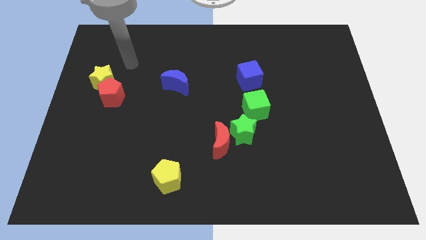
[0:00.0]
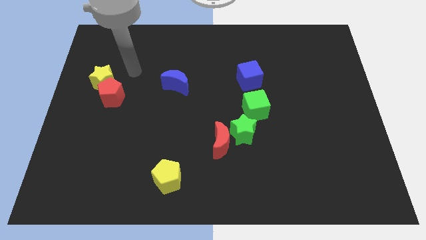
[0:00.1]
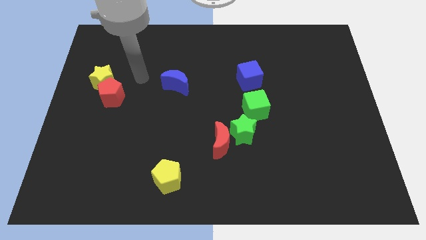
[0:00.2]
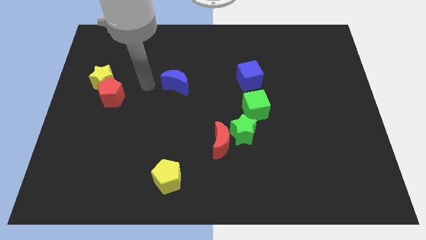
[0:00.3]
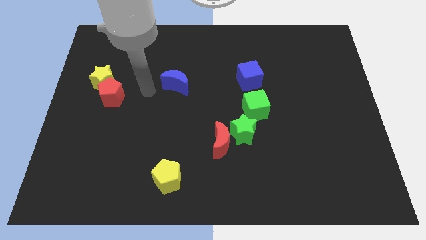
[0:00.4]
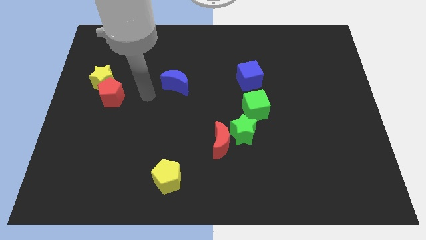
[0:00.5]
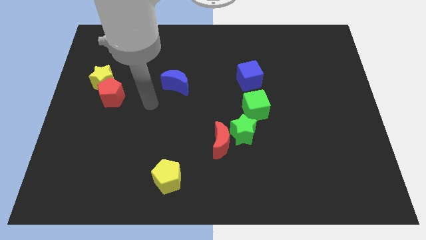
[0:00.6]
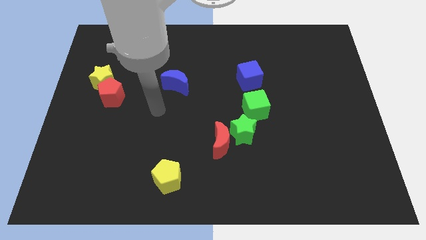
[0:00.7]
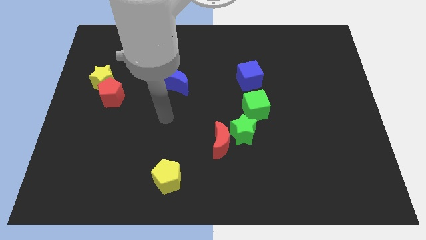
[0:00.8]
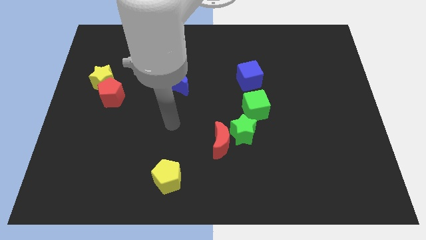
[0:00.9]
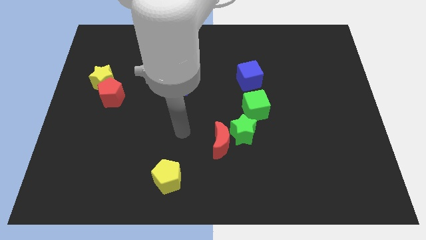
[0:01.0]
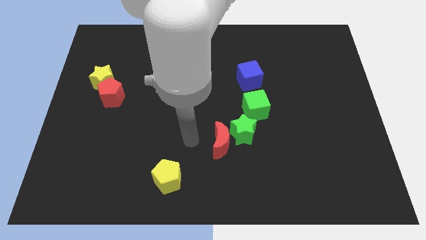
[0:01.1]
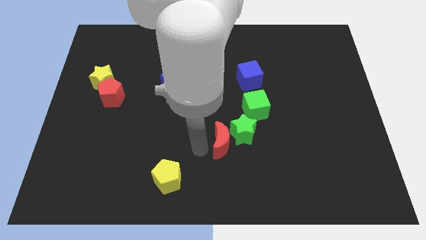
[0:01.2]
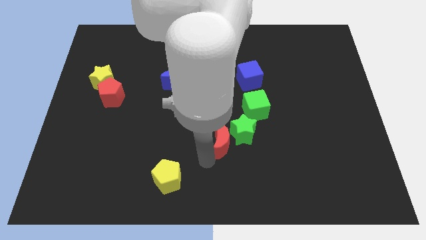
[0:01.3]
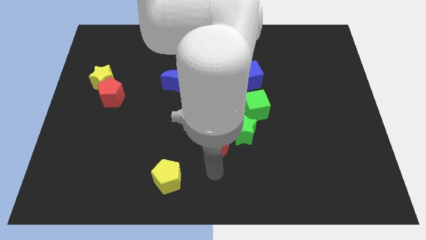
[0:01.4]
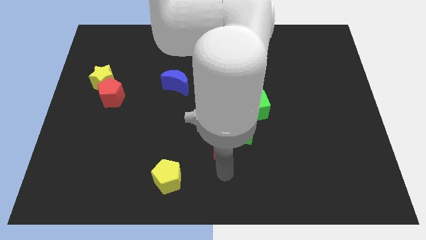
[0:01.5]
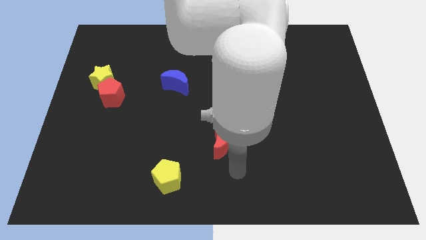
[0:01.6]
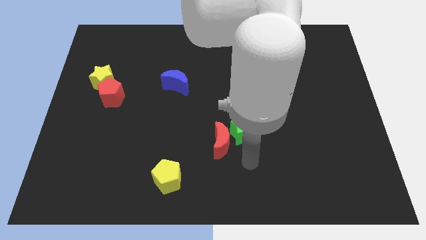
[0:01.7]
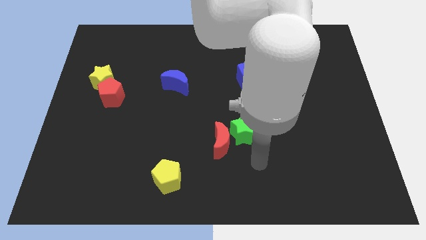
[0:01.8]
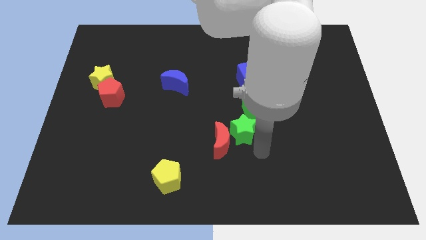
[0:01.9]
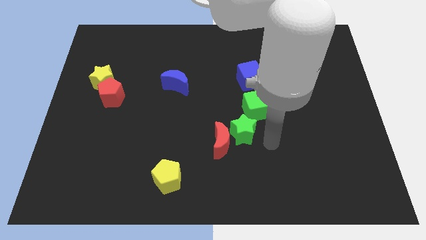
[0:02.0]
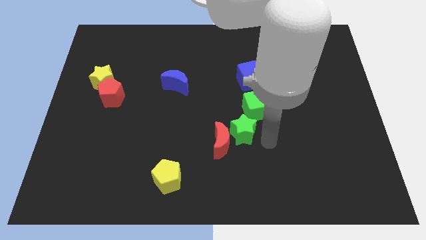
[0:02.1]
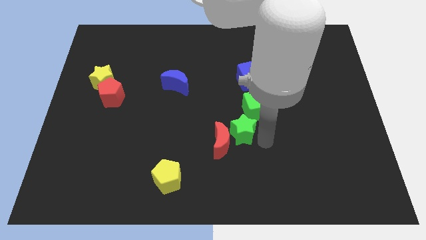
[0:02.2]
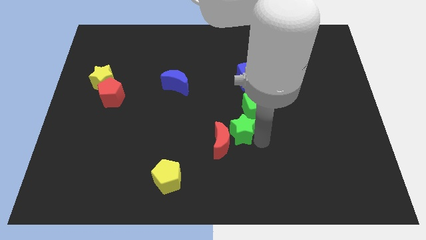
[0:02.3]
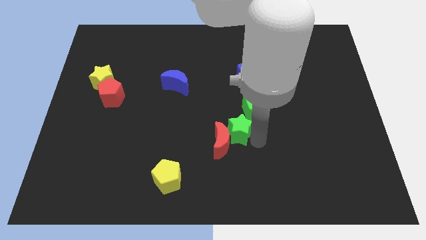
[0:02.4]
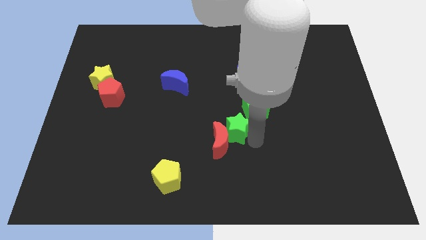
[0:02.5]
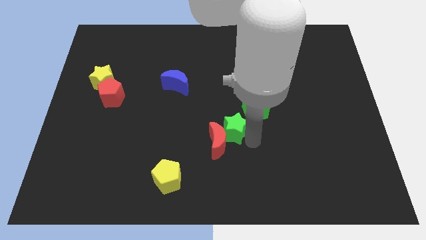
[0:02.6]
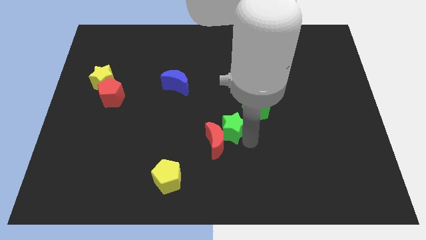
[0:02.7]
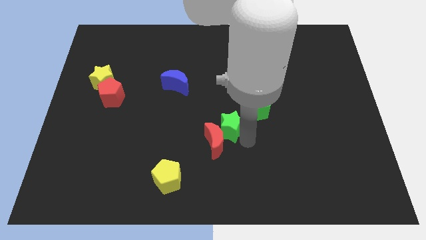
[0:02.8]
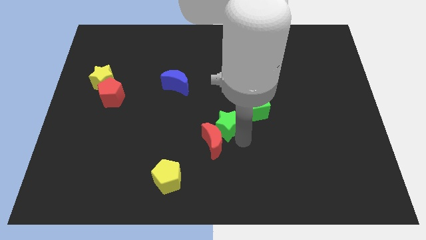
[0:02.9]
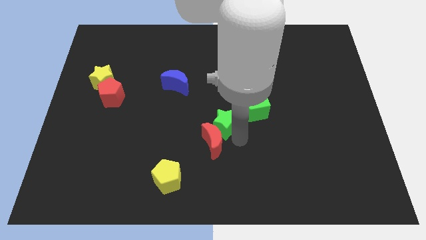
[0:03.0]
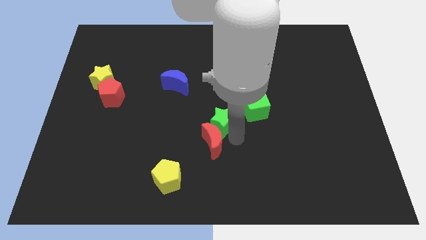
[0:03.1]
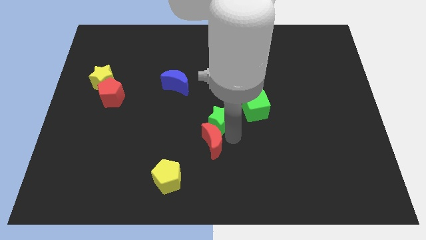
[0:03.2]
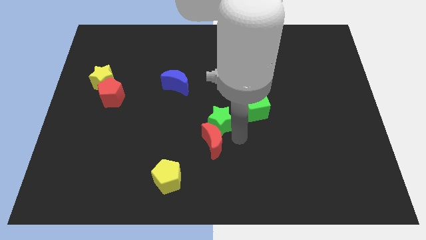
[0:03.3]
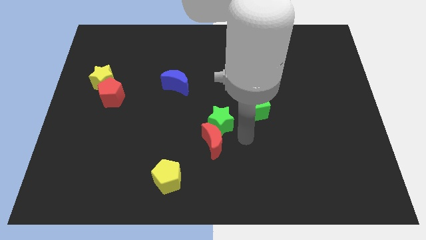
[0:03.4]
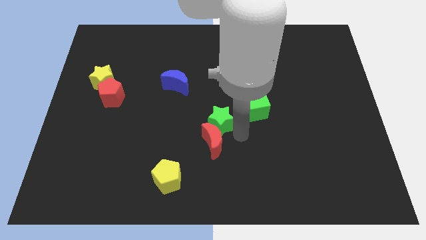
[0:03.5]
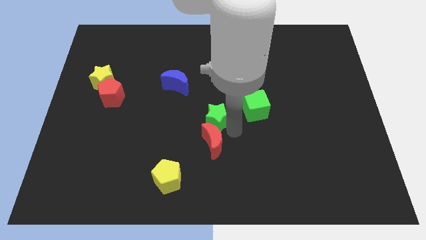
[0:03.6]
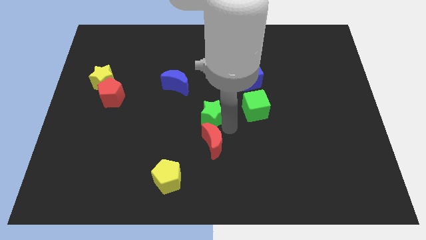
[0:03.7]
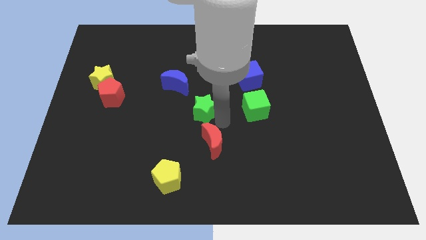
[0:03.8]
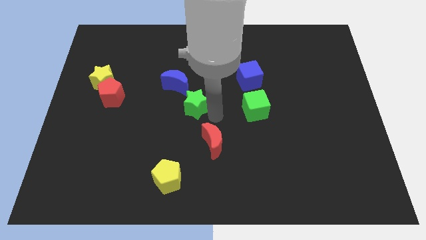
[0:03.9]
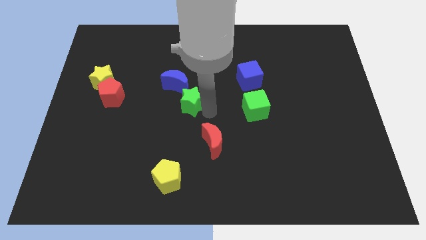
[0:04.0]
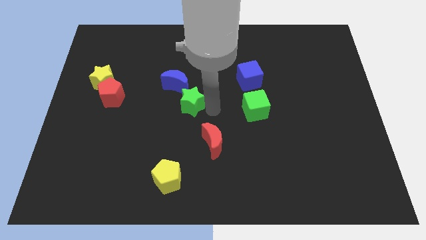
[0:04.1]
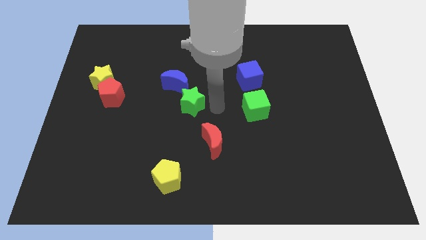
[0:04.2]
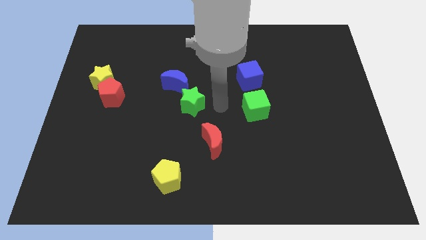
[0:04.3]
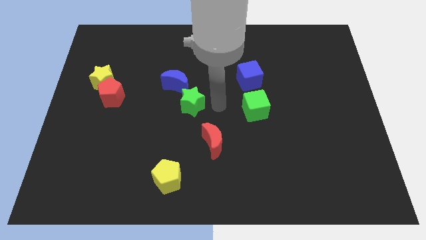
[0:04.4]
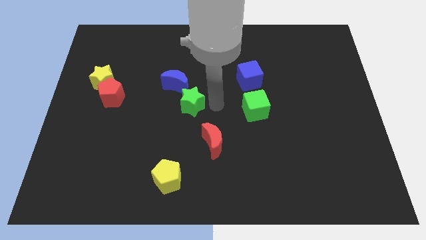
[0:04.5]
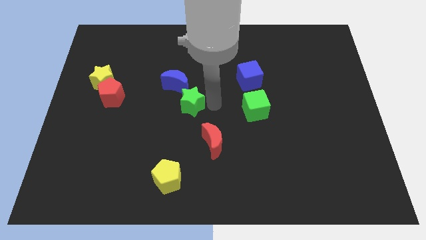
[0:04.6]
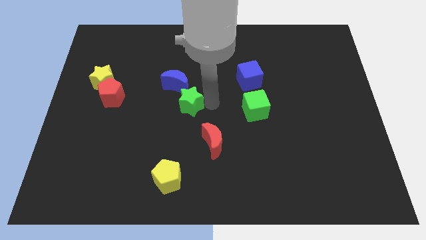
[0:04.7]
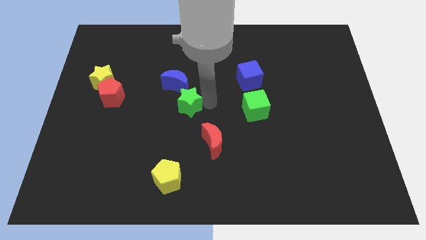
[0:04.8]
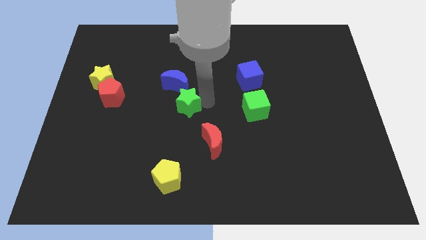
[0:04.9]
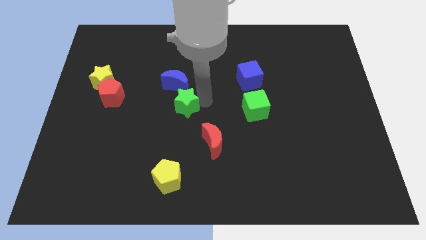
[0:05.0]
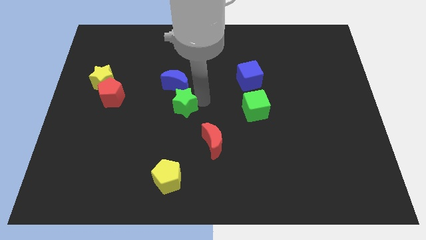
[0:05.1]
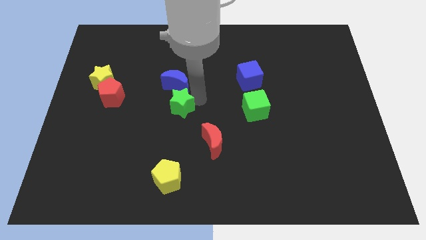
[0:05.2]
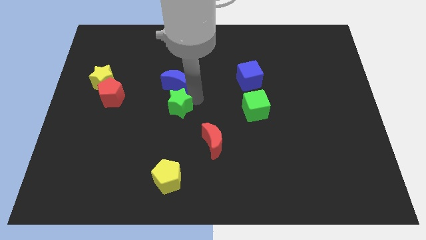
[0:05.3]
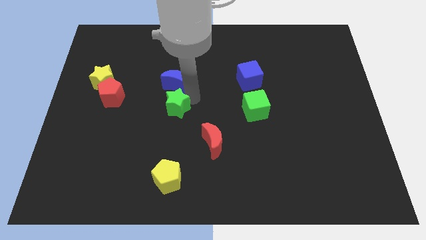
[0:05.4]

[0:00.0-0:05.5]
put the green star to the bottom left of the blue moon

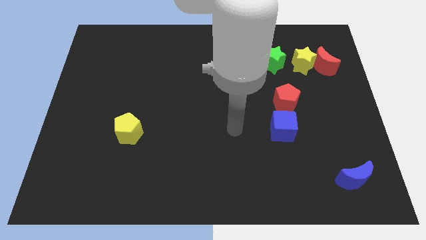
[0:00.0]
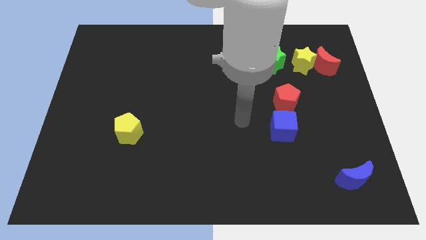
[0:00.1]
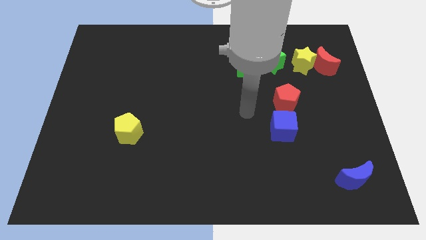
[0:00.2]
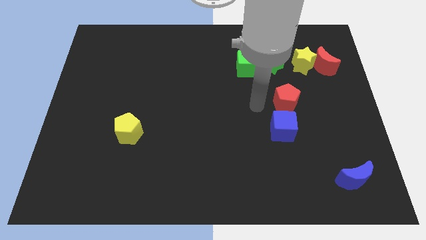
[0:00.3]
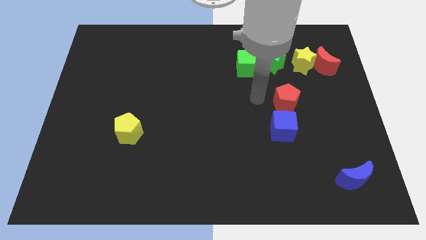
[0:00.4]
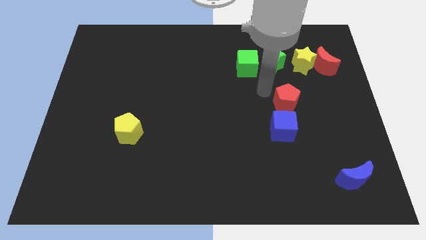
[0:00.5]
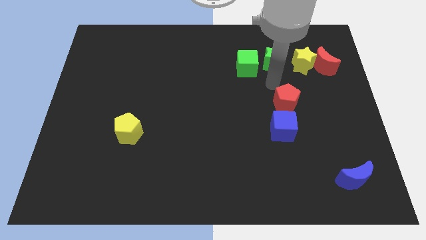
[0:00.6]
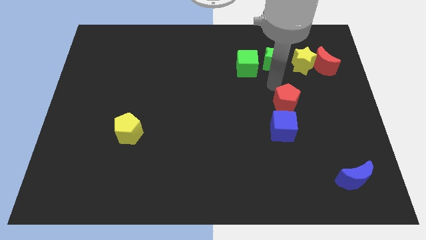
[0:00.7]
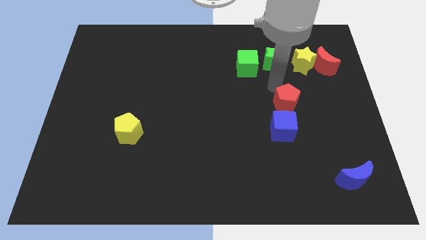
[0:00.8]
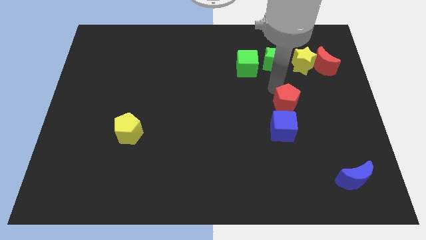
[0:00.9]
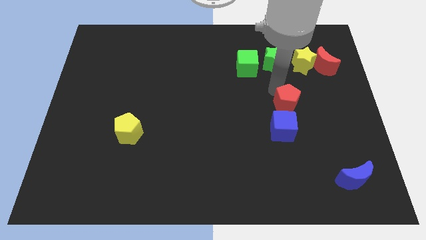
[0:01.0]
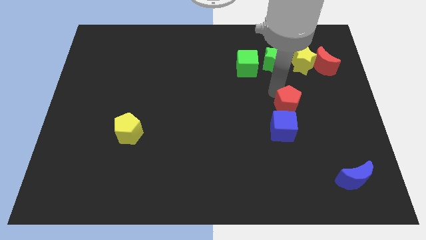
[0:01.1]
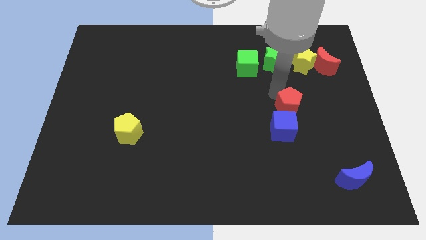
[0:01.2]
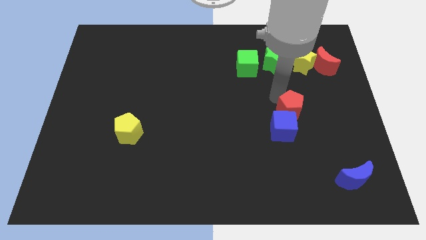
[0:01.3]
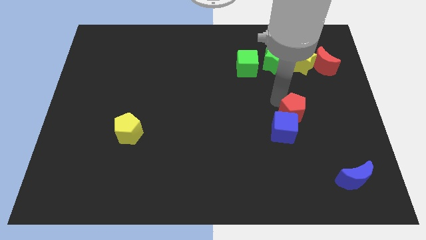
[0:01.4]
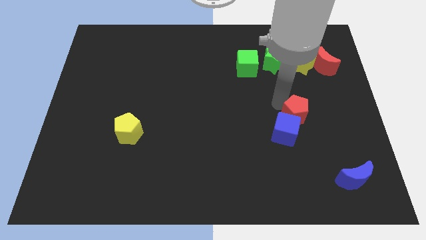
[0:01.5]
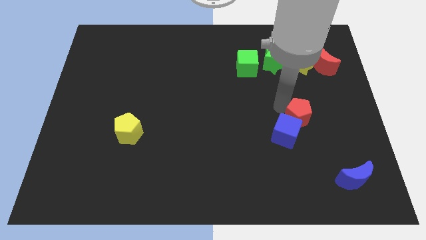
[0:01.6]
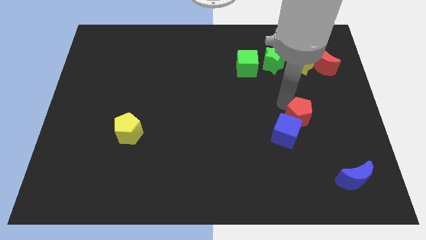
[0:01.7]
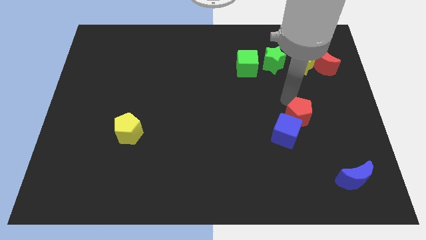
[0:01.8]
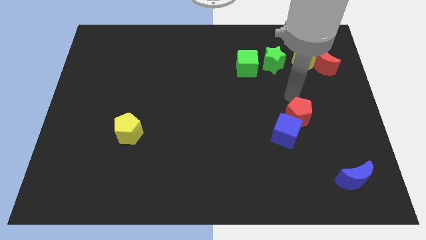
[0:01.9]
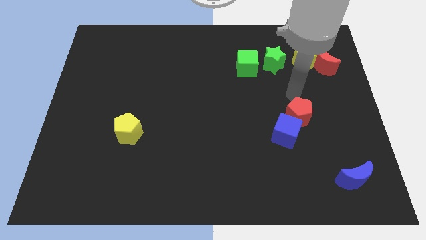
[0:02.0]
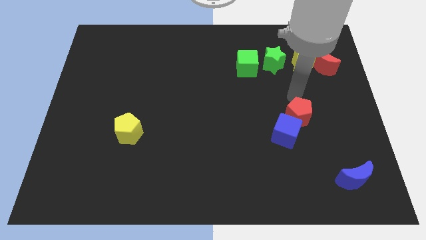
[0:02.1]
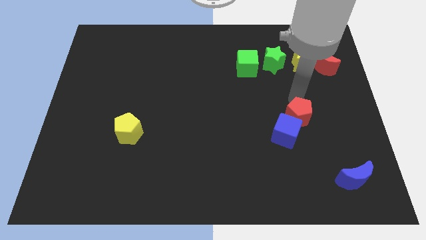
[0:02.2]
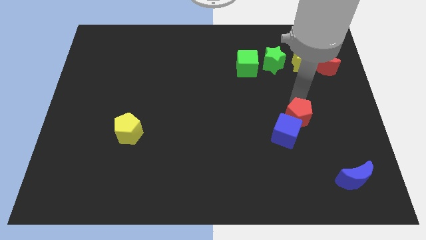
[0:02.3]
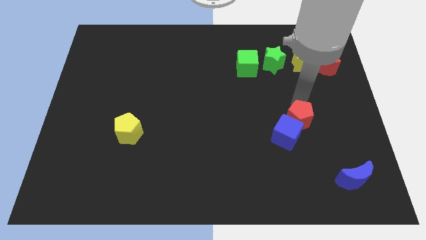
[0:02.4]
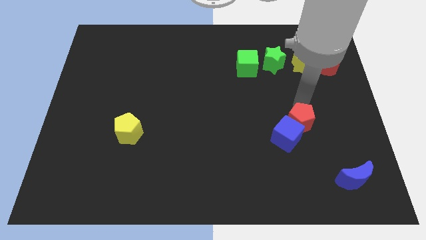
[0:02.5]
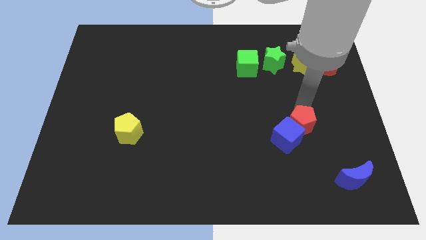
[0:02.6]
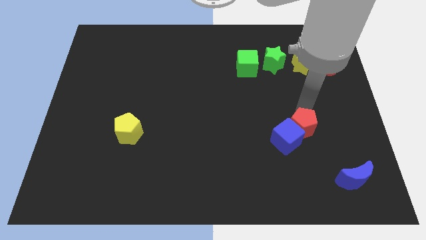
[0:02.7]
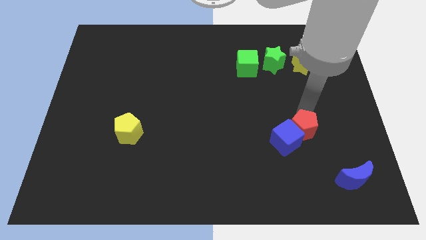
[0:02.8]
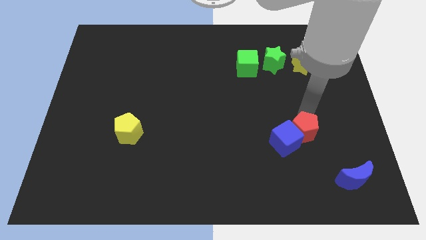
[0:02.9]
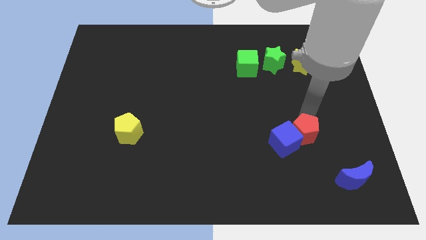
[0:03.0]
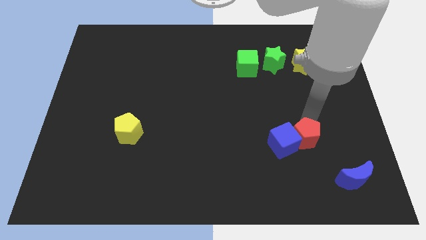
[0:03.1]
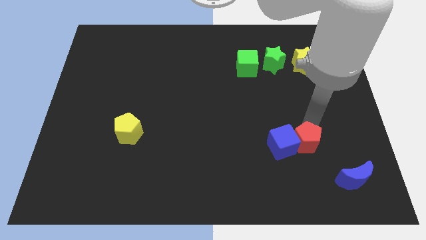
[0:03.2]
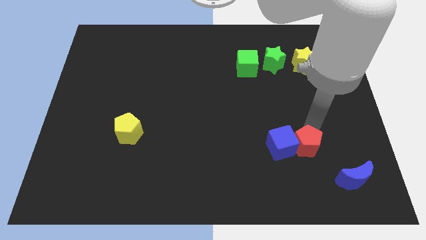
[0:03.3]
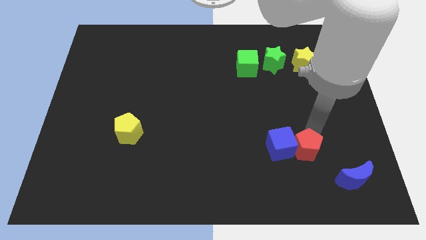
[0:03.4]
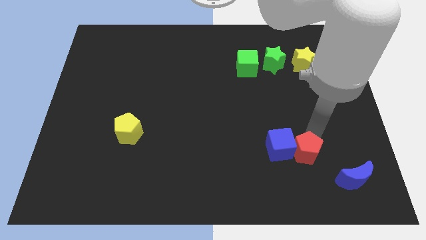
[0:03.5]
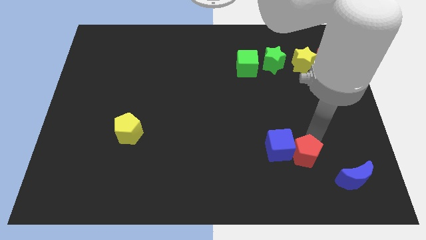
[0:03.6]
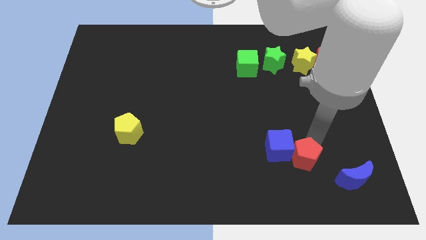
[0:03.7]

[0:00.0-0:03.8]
slide the red pentagon just left of the blue moon
